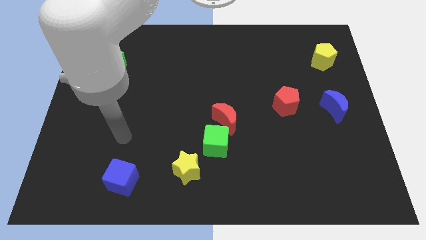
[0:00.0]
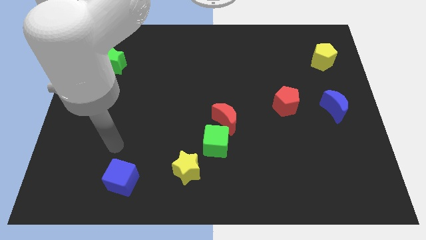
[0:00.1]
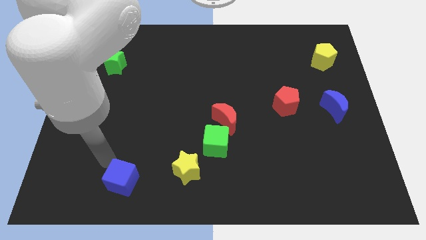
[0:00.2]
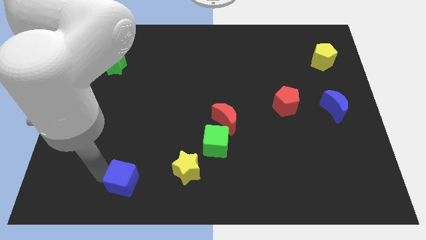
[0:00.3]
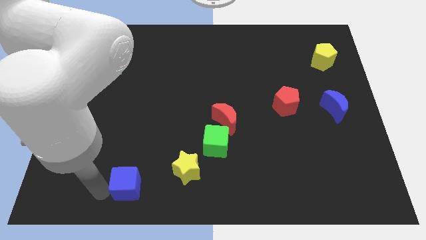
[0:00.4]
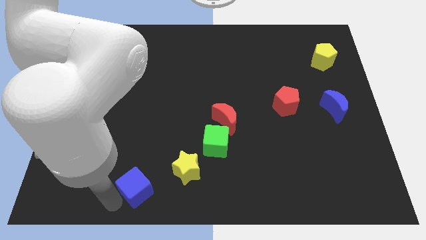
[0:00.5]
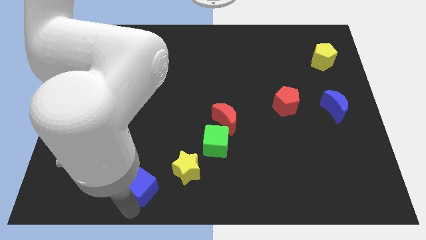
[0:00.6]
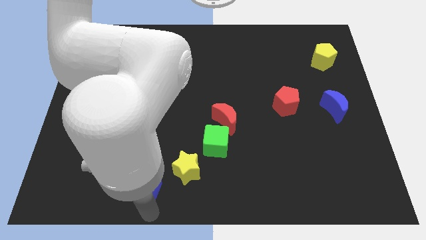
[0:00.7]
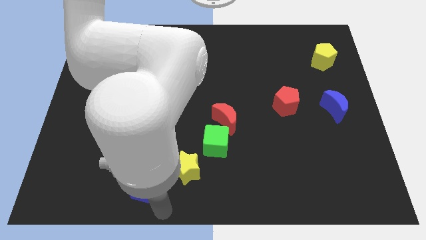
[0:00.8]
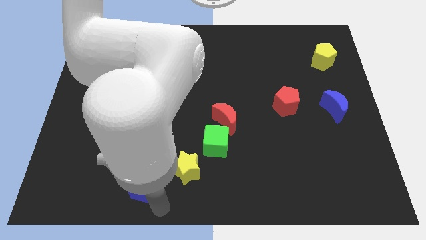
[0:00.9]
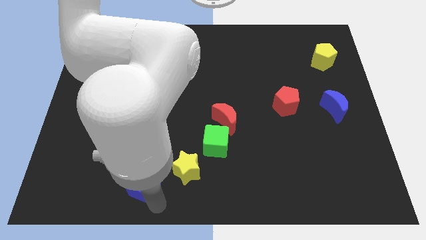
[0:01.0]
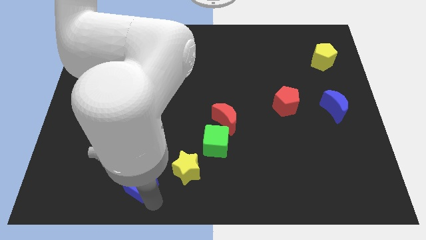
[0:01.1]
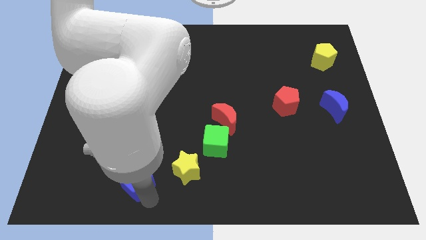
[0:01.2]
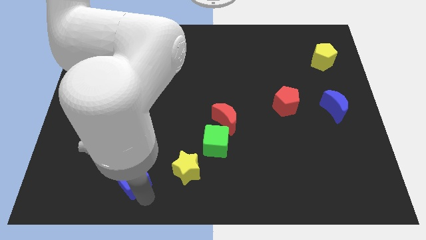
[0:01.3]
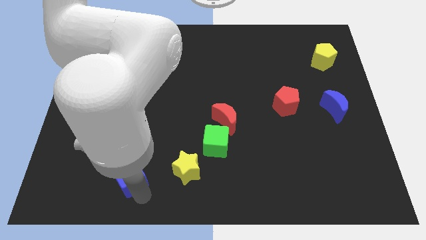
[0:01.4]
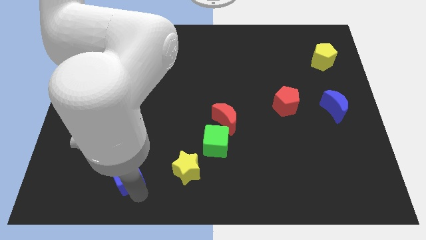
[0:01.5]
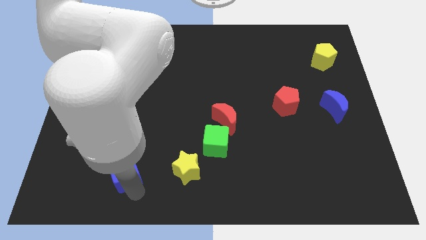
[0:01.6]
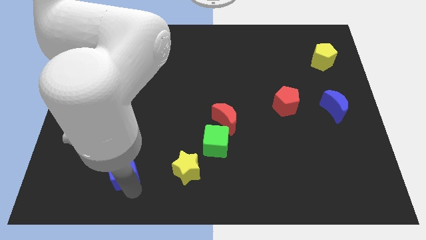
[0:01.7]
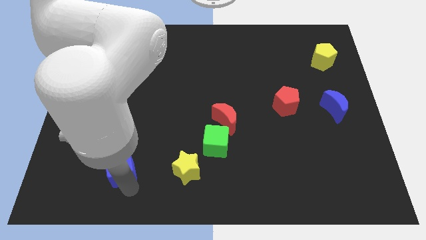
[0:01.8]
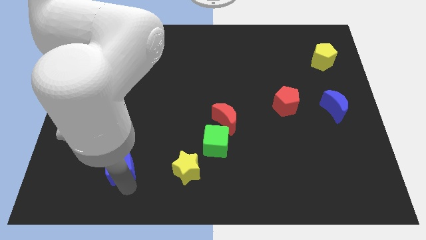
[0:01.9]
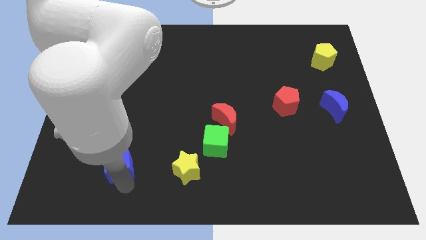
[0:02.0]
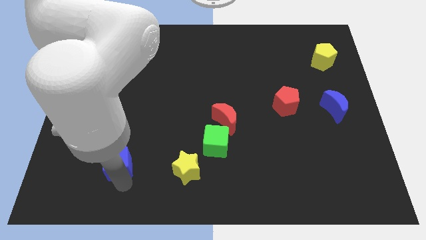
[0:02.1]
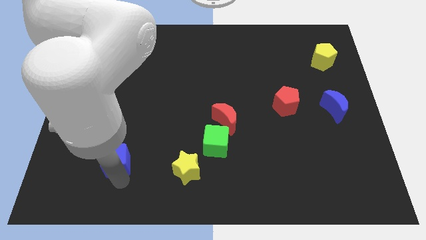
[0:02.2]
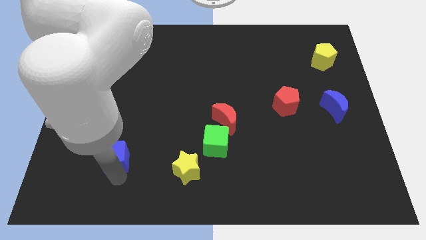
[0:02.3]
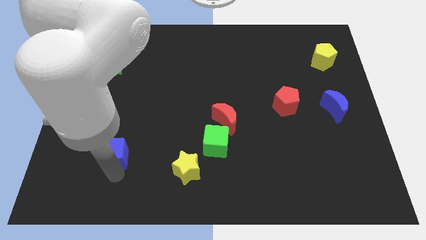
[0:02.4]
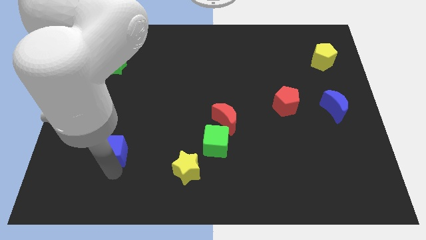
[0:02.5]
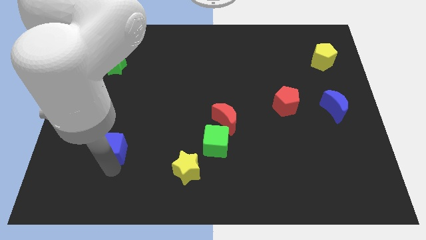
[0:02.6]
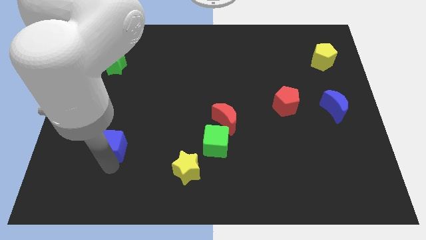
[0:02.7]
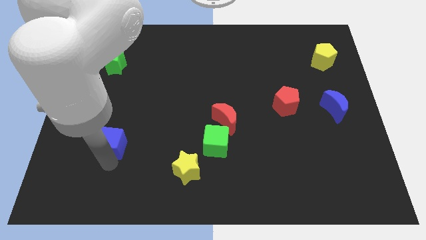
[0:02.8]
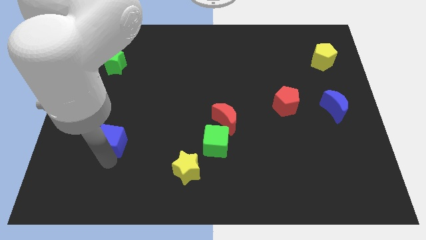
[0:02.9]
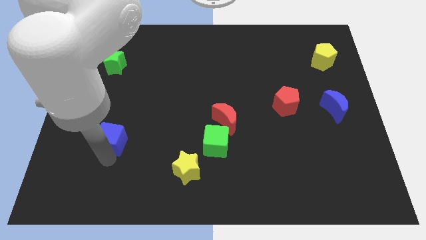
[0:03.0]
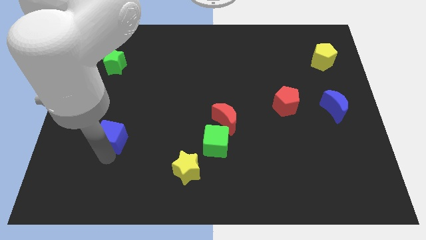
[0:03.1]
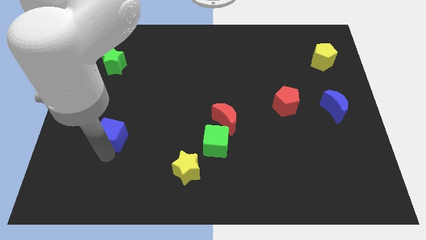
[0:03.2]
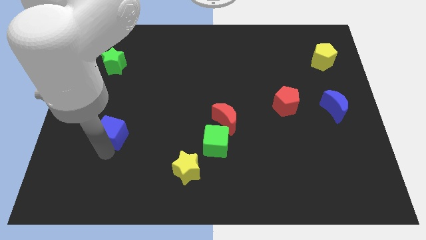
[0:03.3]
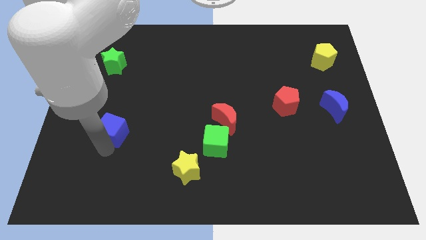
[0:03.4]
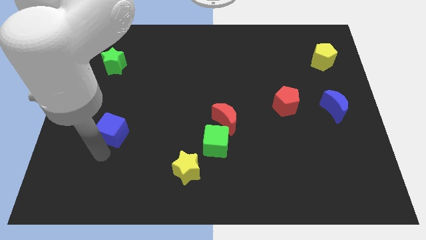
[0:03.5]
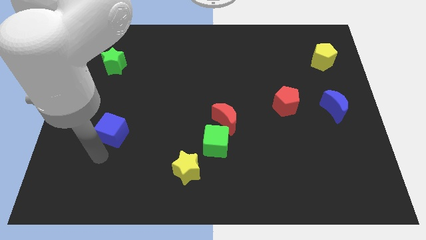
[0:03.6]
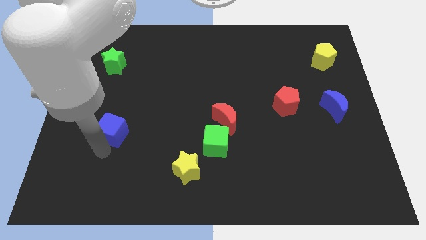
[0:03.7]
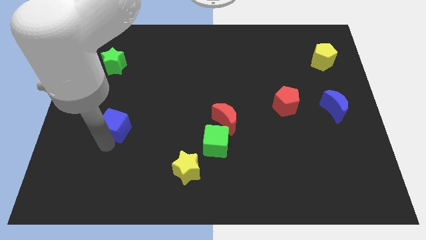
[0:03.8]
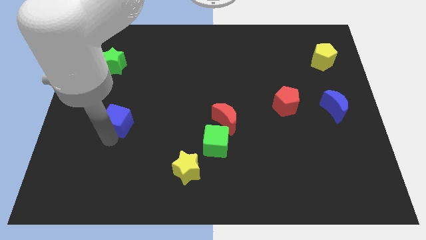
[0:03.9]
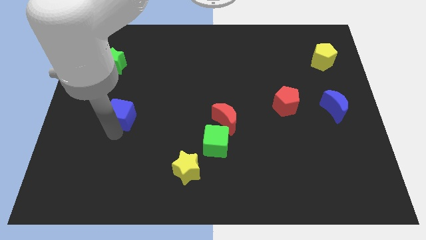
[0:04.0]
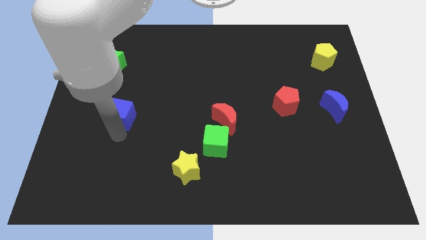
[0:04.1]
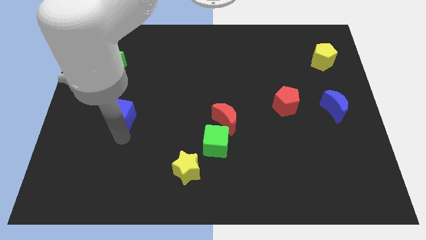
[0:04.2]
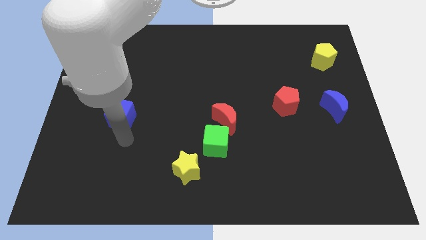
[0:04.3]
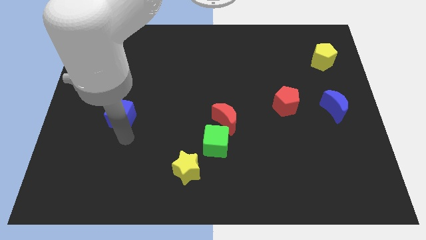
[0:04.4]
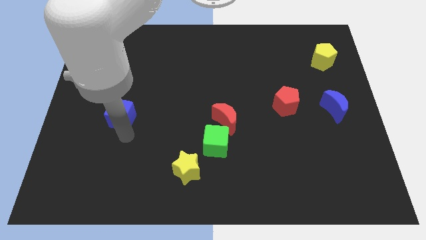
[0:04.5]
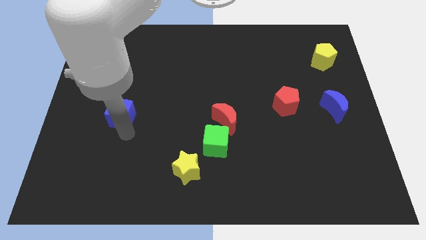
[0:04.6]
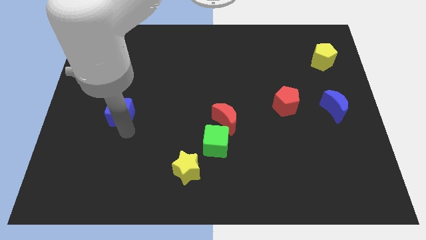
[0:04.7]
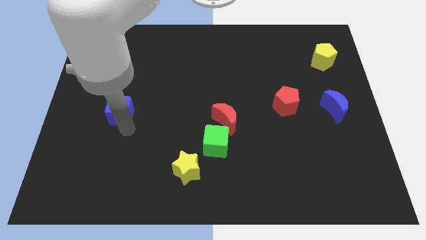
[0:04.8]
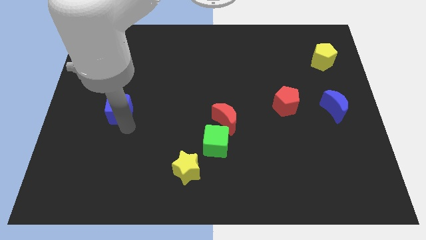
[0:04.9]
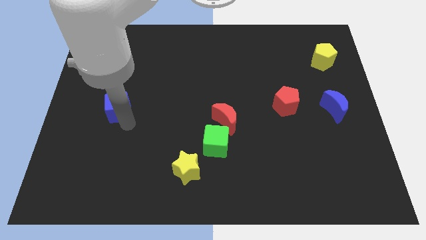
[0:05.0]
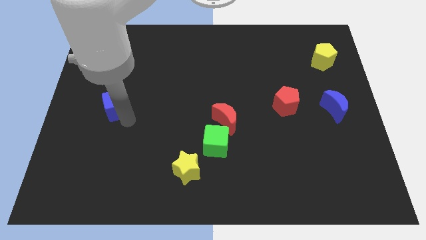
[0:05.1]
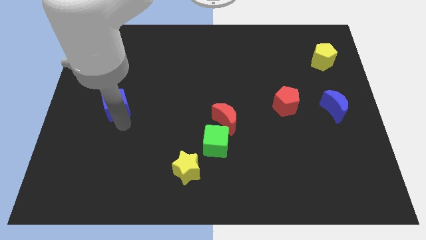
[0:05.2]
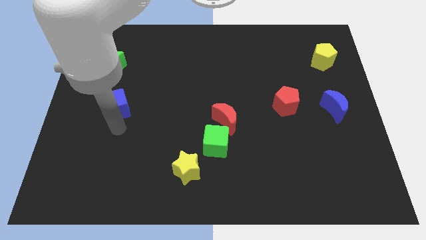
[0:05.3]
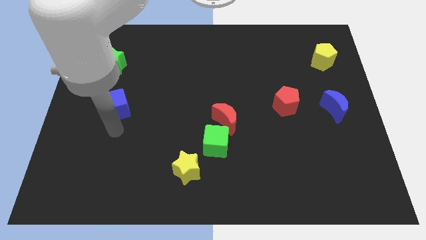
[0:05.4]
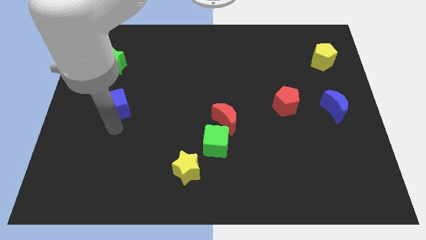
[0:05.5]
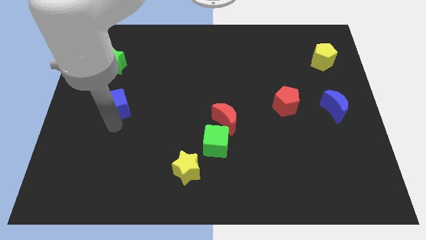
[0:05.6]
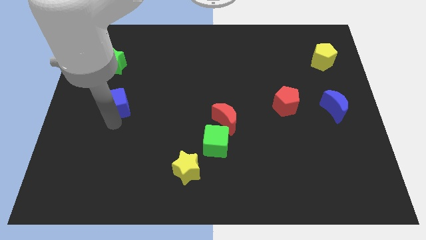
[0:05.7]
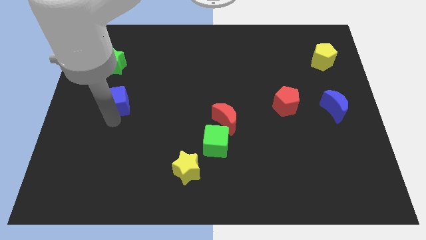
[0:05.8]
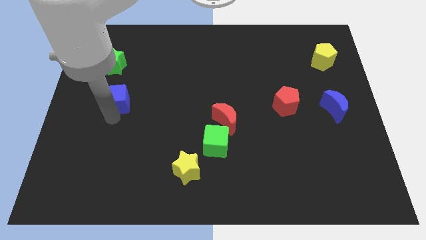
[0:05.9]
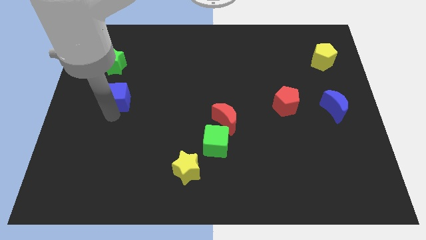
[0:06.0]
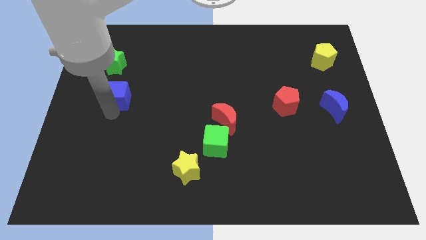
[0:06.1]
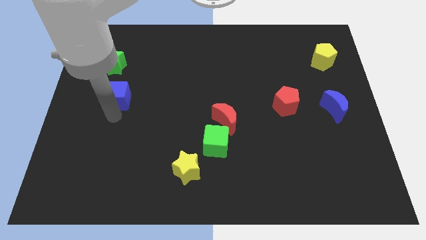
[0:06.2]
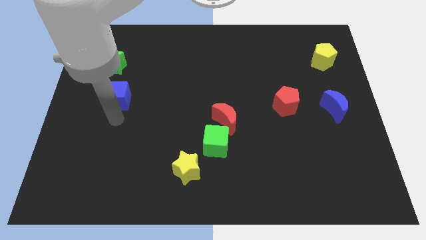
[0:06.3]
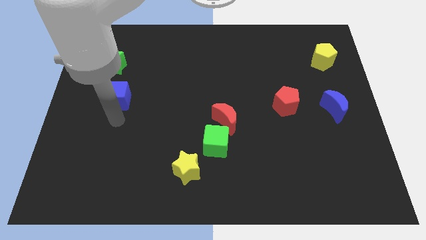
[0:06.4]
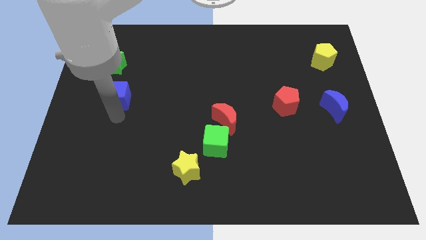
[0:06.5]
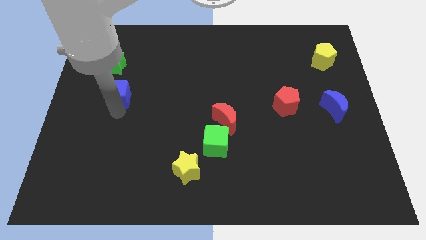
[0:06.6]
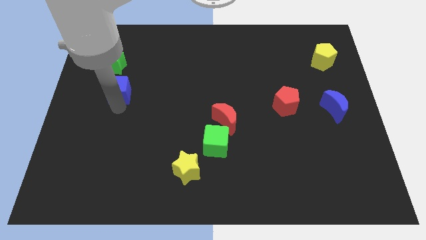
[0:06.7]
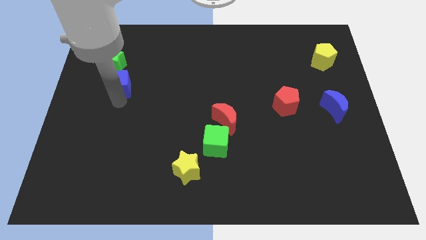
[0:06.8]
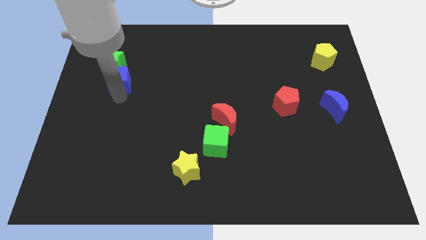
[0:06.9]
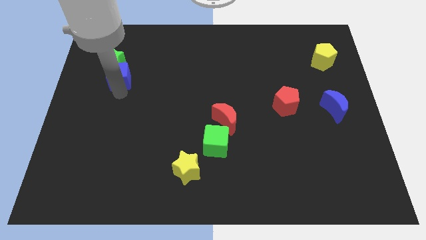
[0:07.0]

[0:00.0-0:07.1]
move the blue cube to the green star

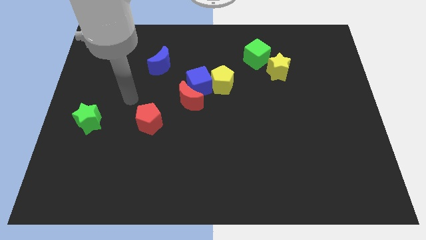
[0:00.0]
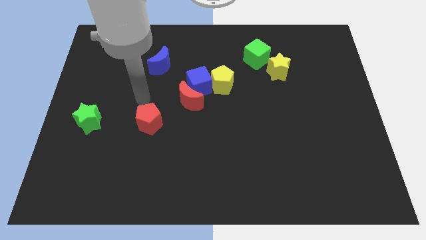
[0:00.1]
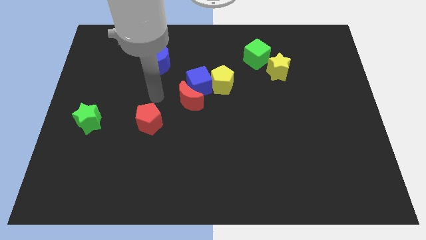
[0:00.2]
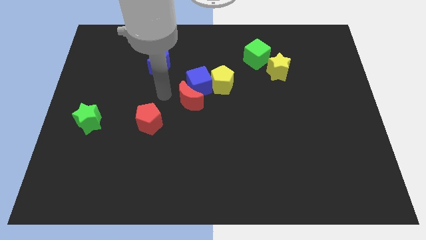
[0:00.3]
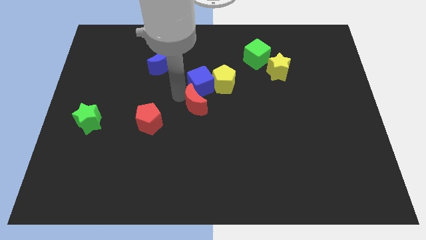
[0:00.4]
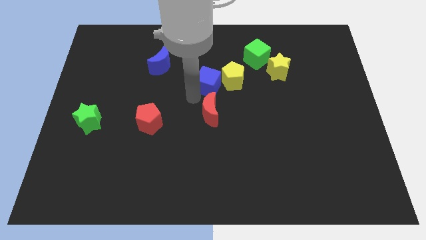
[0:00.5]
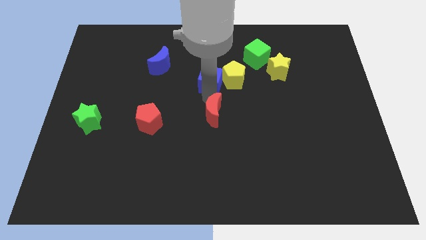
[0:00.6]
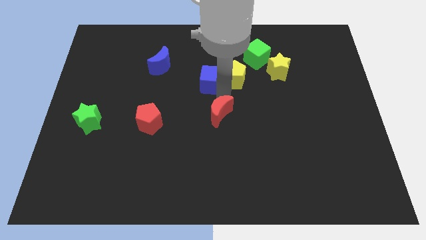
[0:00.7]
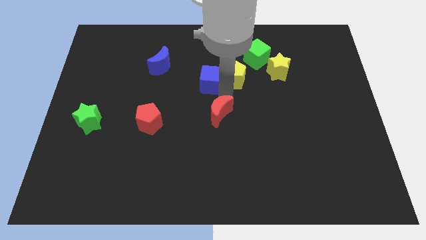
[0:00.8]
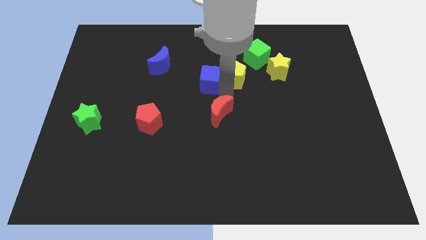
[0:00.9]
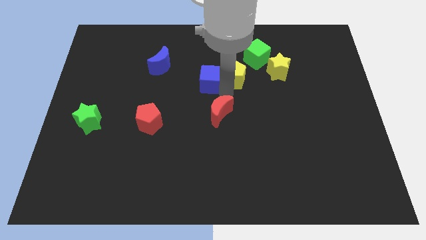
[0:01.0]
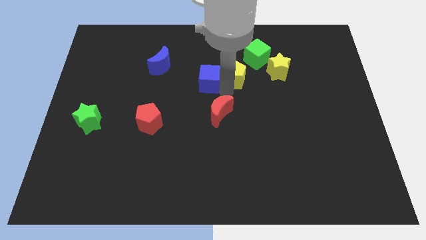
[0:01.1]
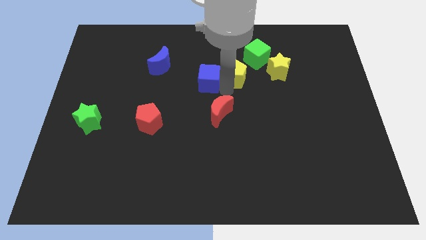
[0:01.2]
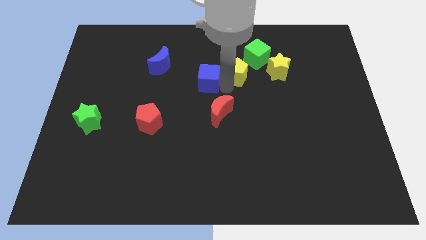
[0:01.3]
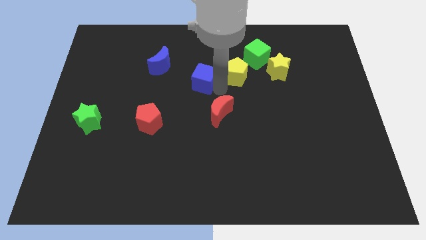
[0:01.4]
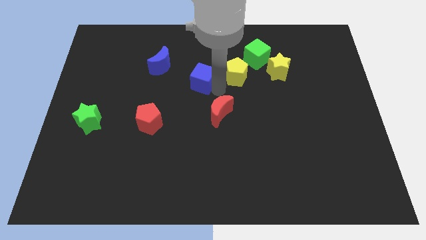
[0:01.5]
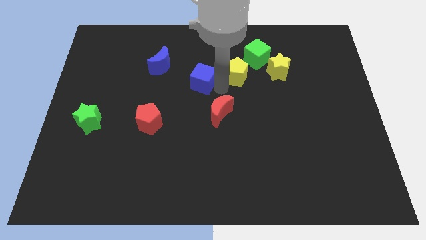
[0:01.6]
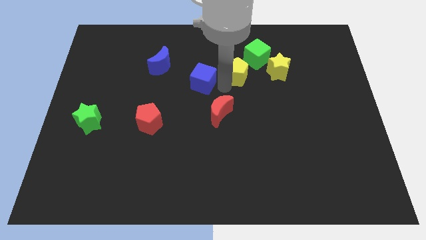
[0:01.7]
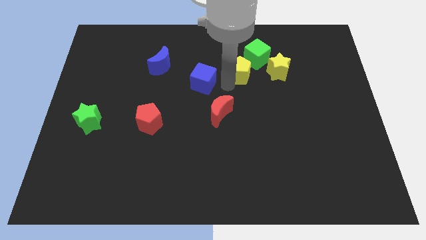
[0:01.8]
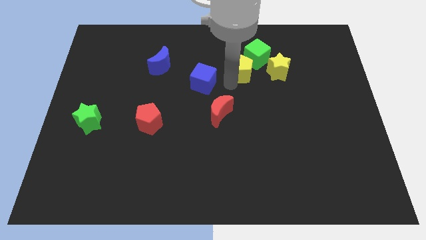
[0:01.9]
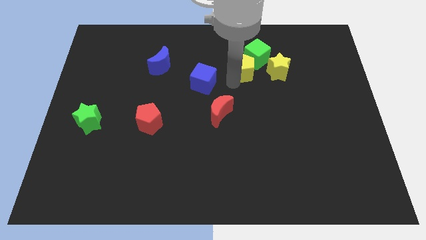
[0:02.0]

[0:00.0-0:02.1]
move the yellow pentagon to the green cube
